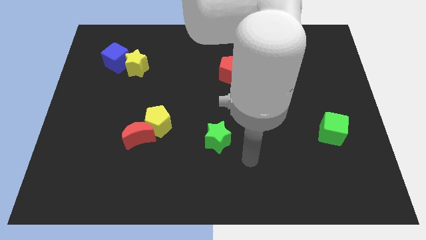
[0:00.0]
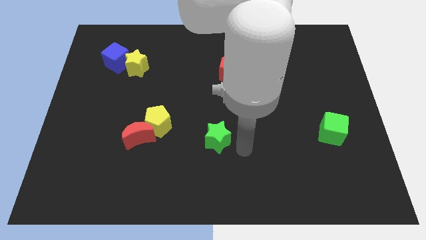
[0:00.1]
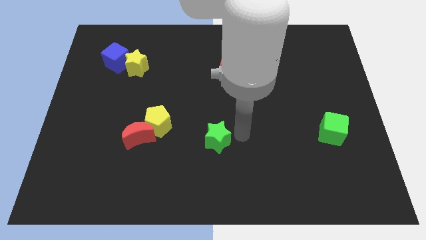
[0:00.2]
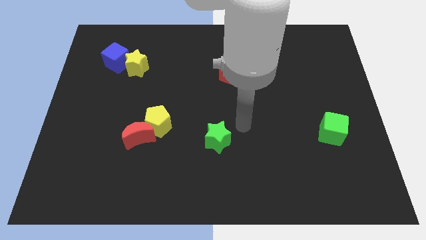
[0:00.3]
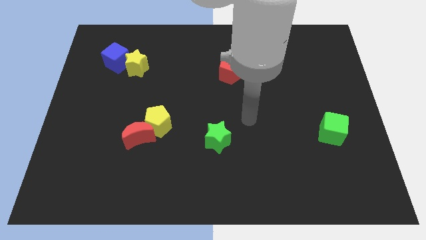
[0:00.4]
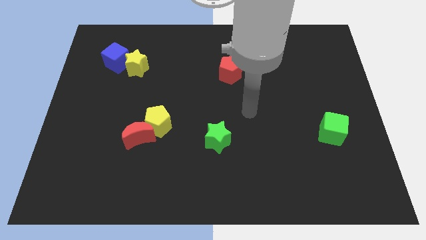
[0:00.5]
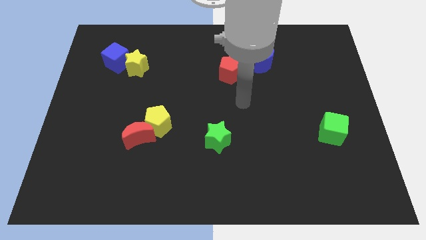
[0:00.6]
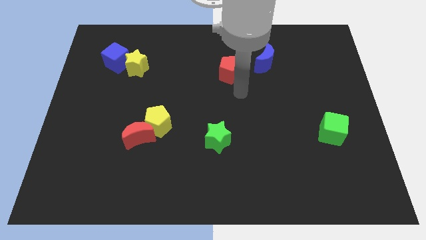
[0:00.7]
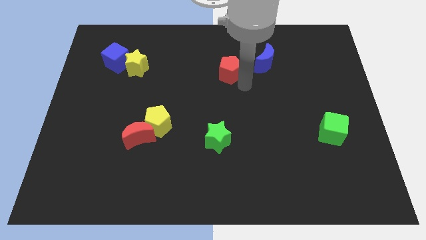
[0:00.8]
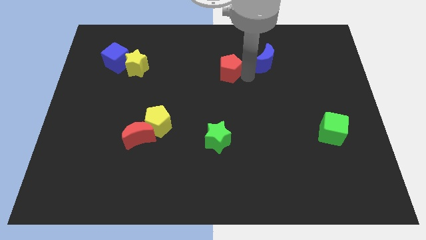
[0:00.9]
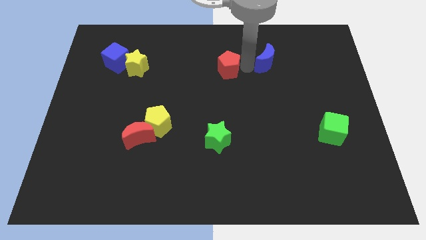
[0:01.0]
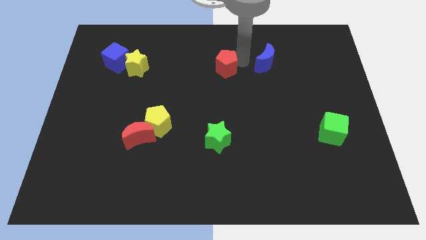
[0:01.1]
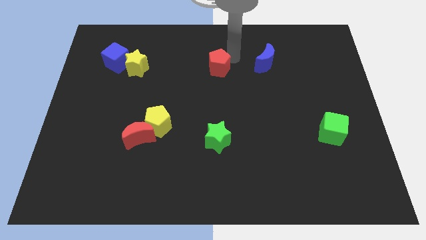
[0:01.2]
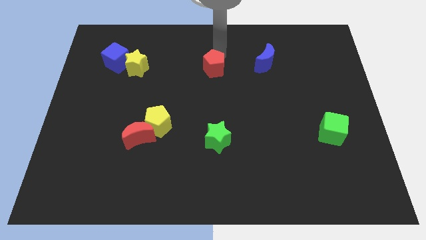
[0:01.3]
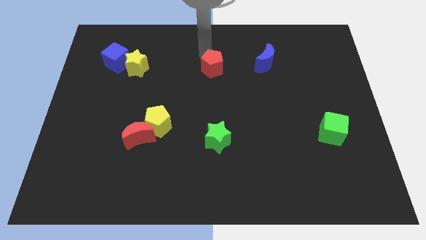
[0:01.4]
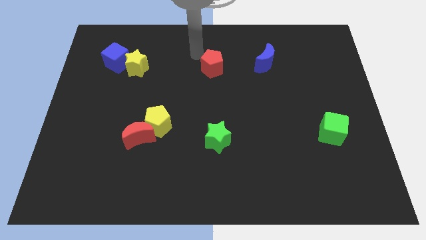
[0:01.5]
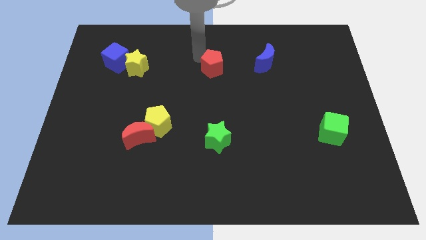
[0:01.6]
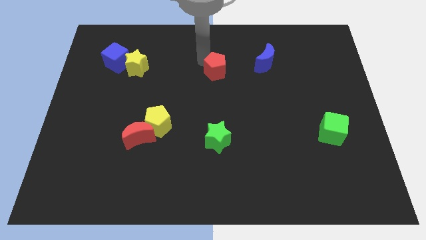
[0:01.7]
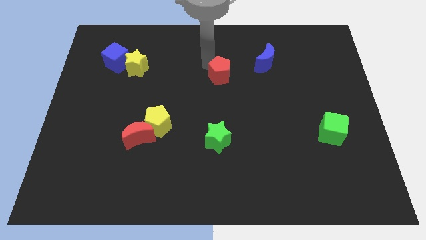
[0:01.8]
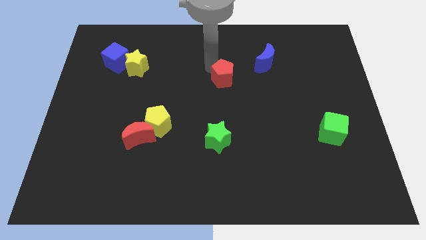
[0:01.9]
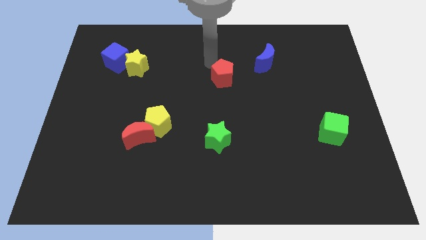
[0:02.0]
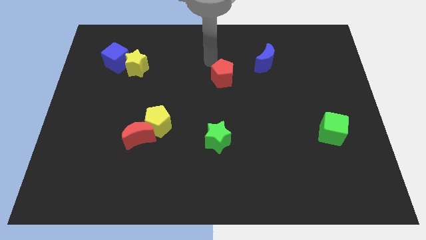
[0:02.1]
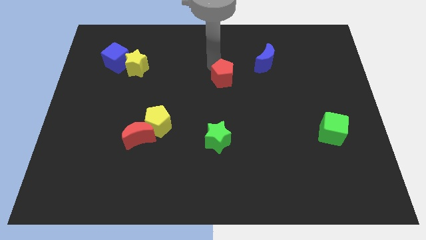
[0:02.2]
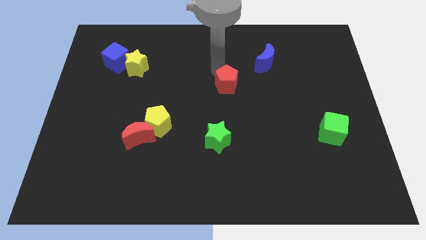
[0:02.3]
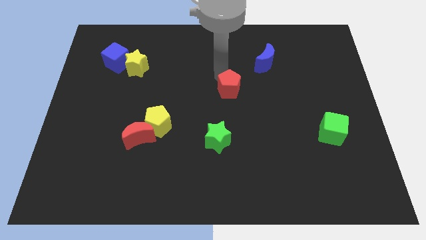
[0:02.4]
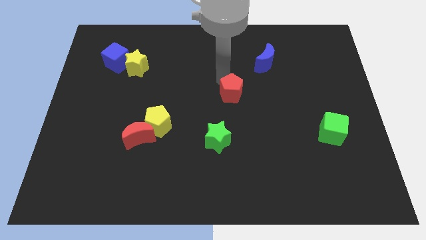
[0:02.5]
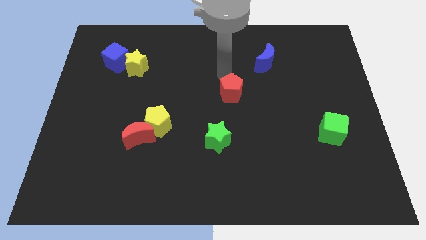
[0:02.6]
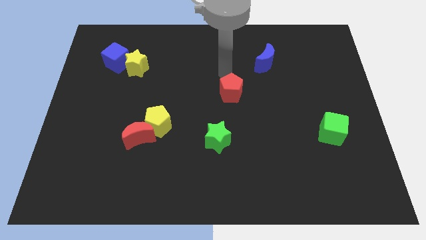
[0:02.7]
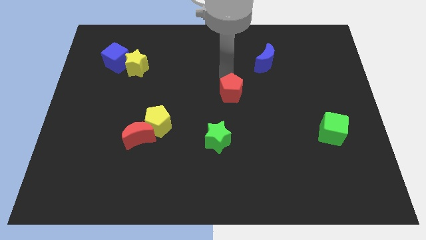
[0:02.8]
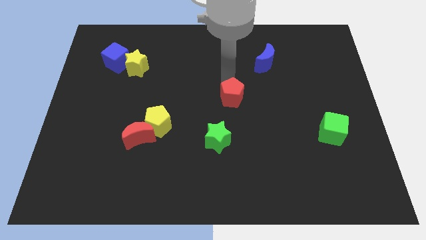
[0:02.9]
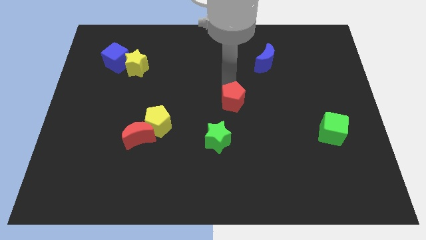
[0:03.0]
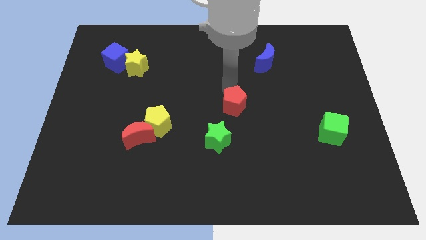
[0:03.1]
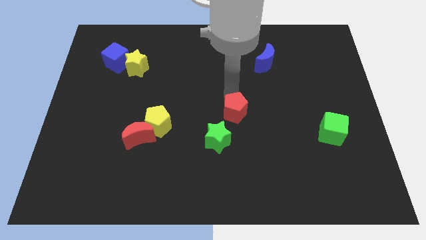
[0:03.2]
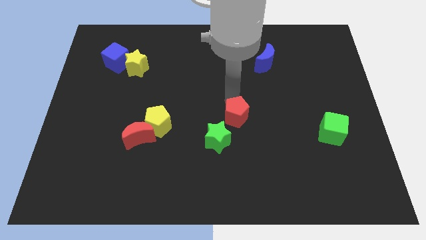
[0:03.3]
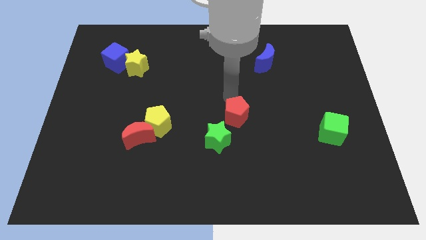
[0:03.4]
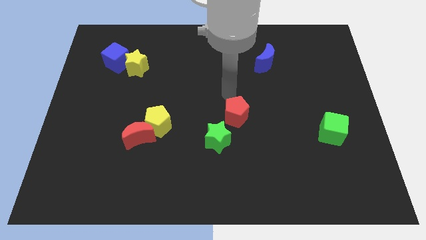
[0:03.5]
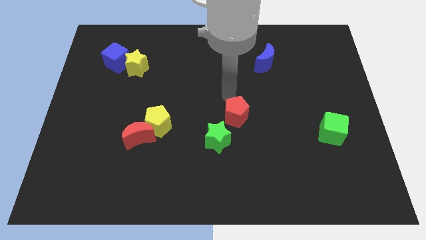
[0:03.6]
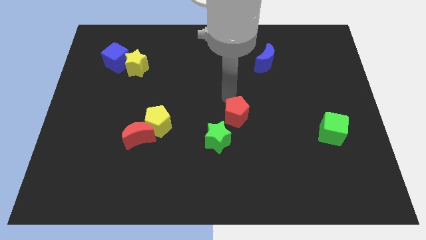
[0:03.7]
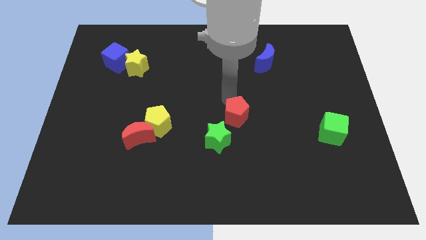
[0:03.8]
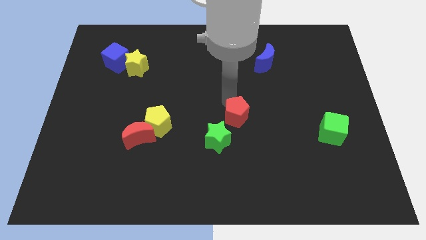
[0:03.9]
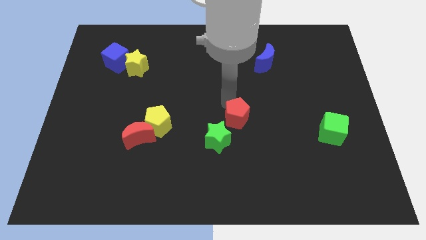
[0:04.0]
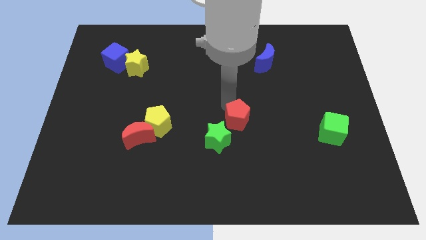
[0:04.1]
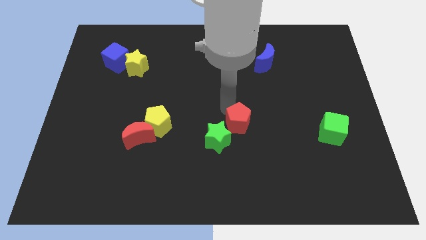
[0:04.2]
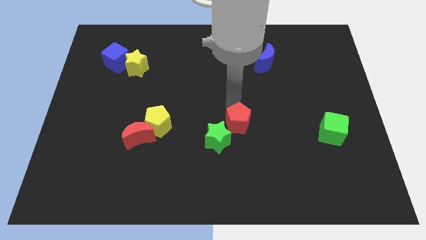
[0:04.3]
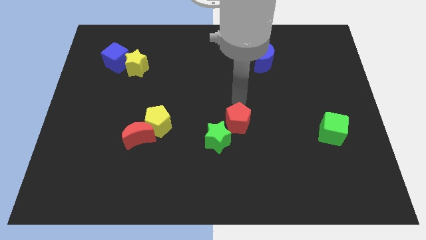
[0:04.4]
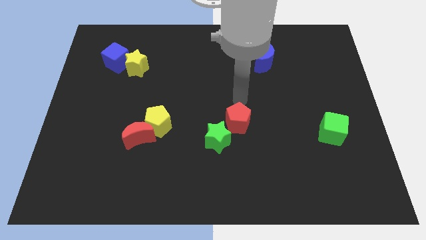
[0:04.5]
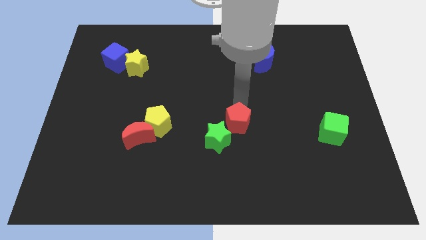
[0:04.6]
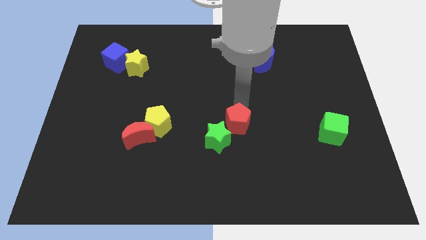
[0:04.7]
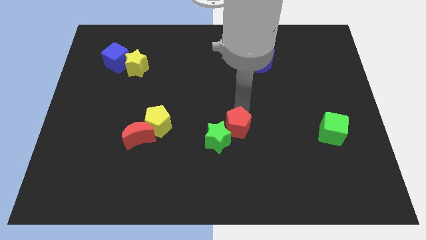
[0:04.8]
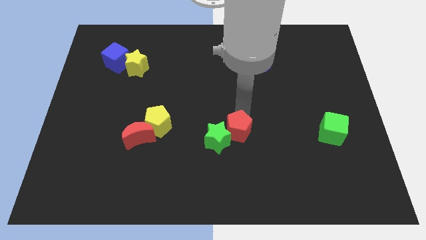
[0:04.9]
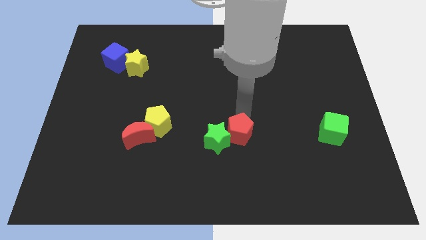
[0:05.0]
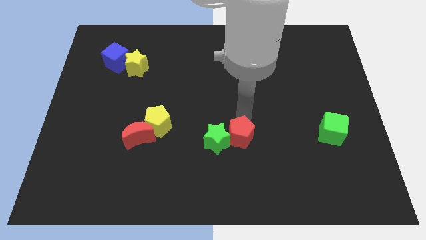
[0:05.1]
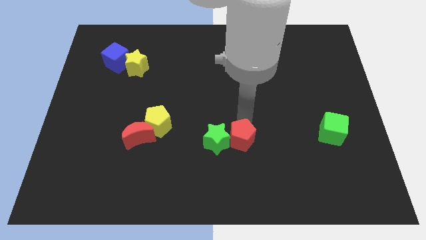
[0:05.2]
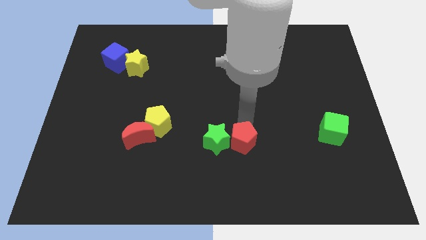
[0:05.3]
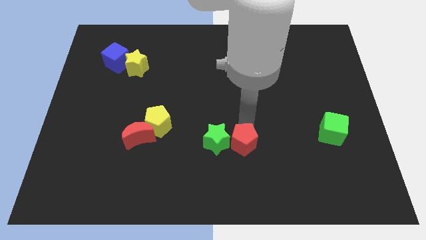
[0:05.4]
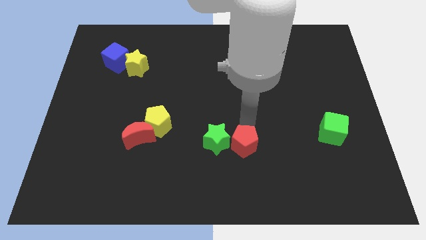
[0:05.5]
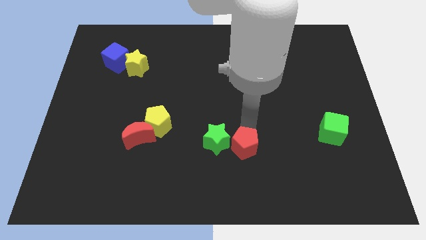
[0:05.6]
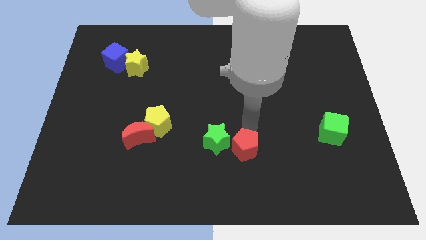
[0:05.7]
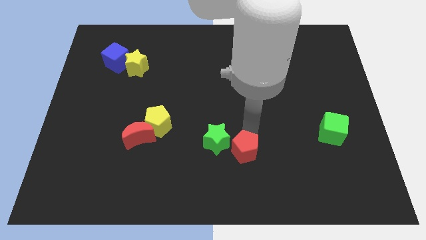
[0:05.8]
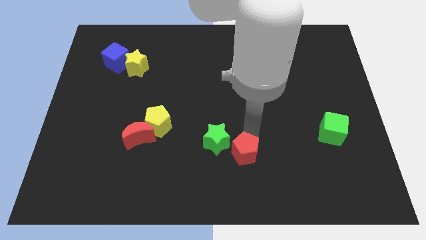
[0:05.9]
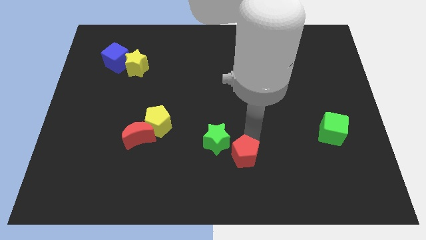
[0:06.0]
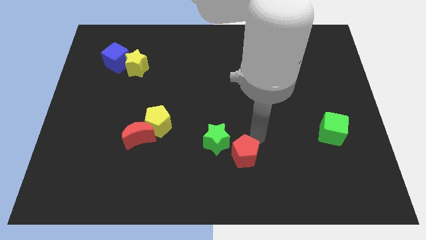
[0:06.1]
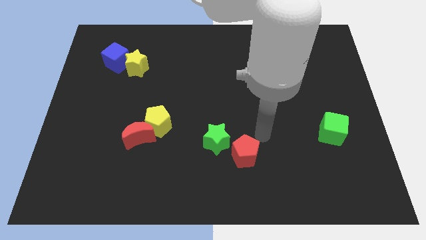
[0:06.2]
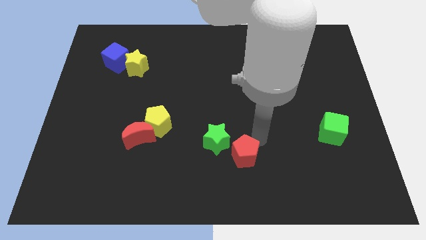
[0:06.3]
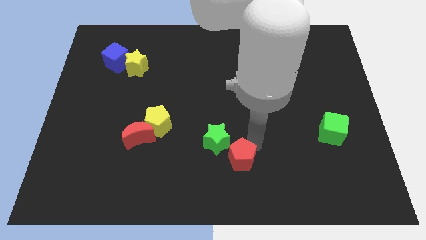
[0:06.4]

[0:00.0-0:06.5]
slide the red pentagon to the bottom
